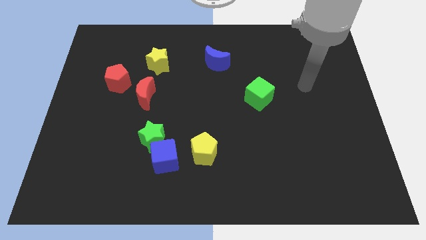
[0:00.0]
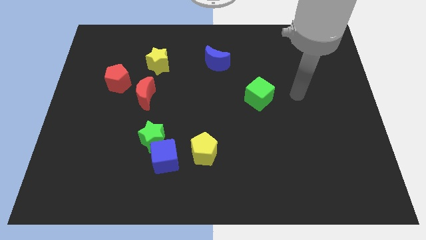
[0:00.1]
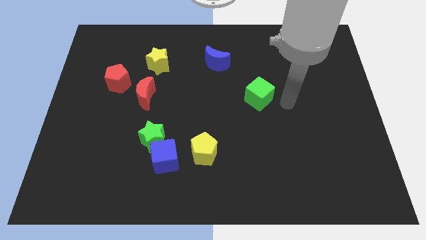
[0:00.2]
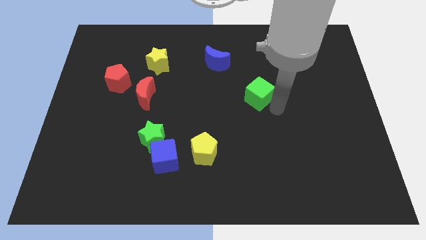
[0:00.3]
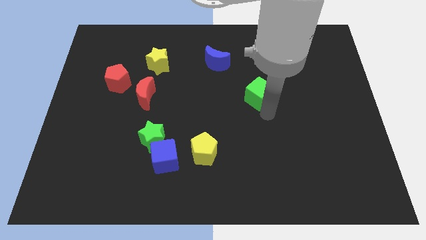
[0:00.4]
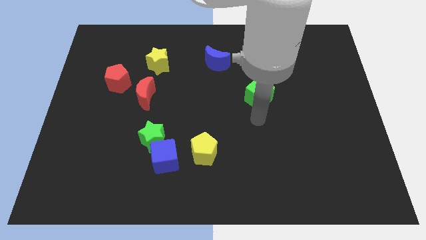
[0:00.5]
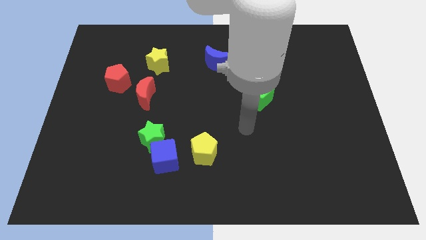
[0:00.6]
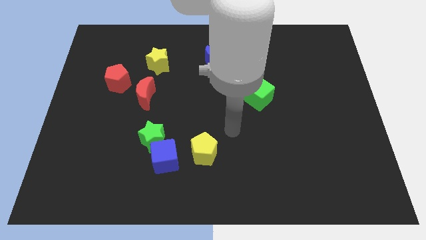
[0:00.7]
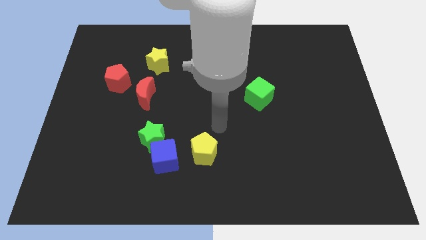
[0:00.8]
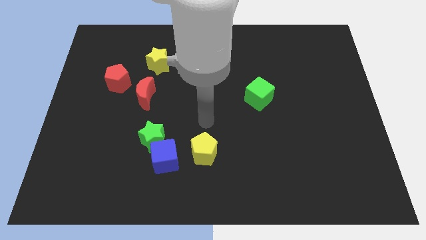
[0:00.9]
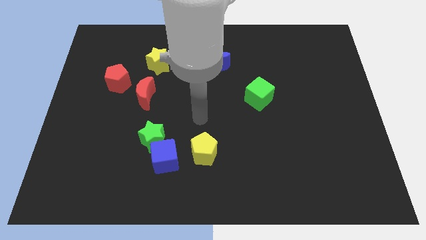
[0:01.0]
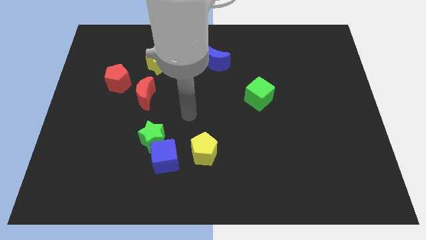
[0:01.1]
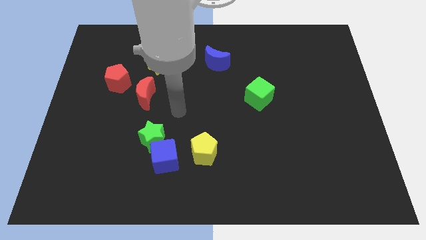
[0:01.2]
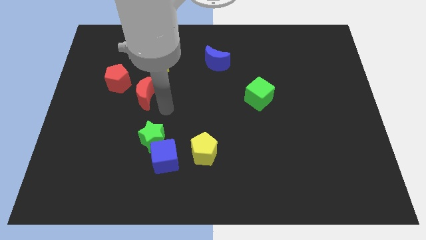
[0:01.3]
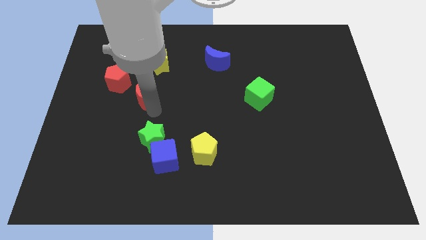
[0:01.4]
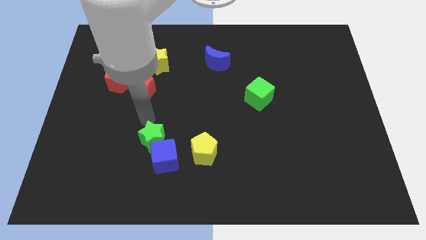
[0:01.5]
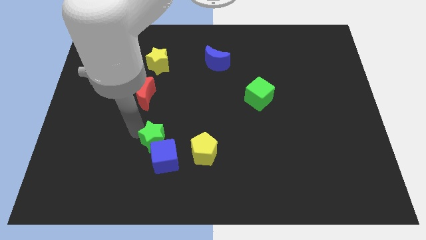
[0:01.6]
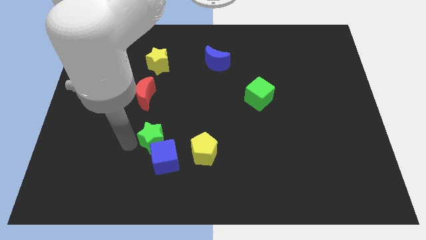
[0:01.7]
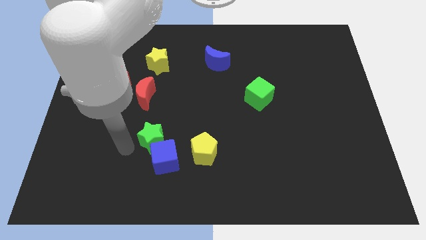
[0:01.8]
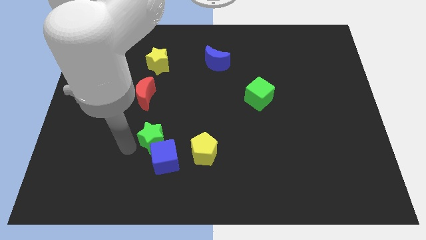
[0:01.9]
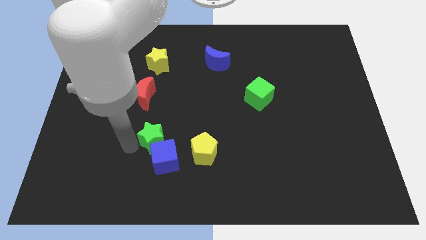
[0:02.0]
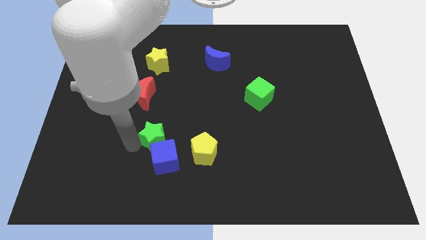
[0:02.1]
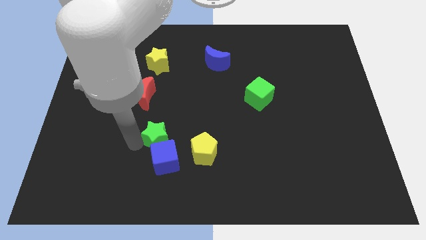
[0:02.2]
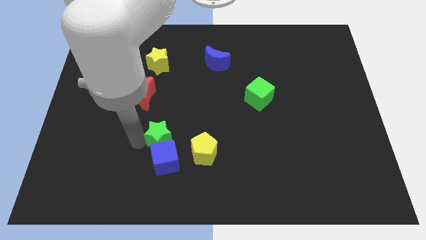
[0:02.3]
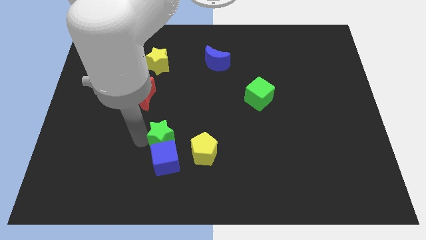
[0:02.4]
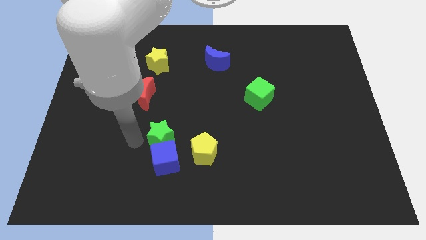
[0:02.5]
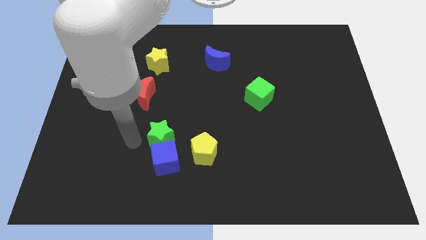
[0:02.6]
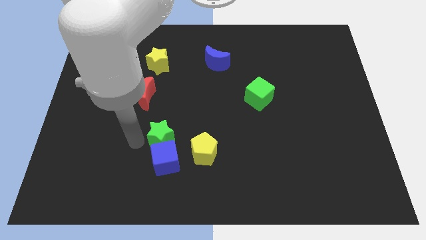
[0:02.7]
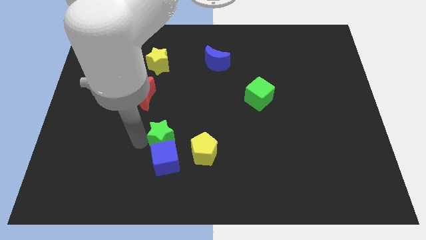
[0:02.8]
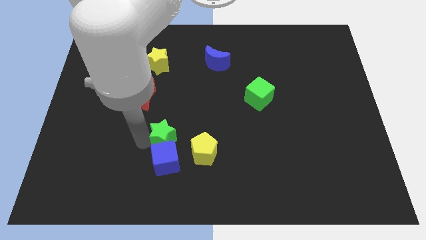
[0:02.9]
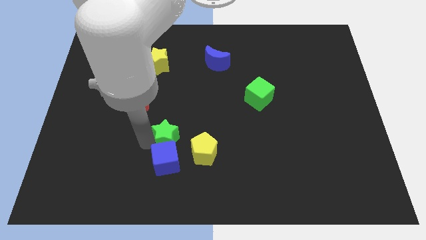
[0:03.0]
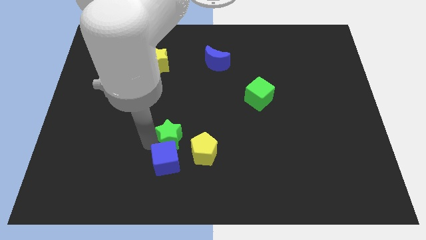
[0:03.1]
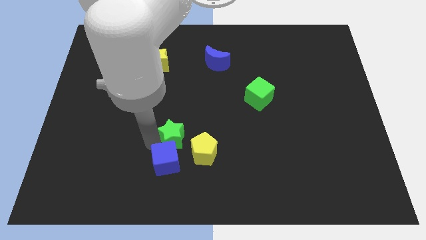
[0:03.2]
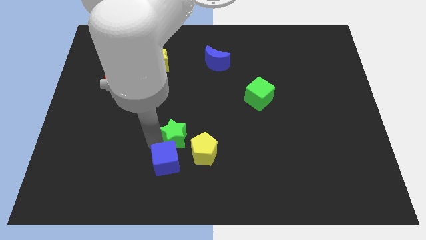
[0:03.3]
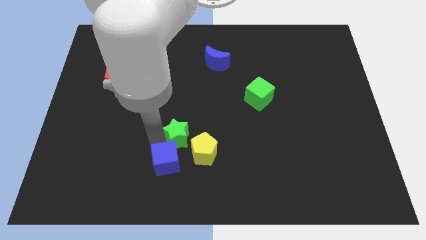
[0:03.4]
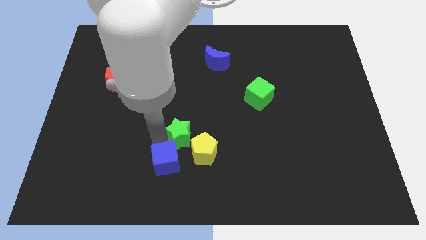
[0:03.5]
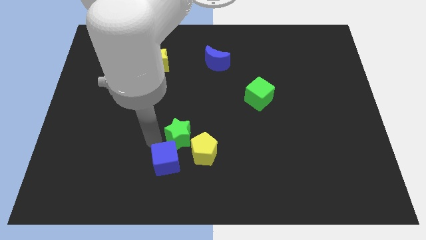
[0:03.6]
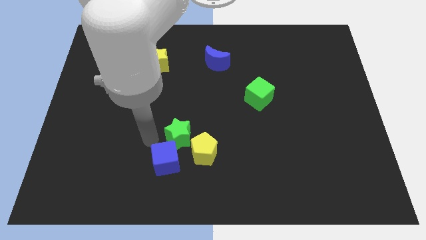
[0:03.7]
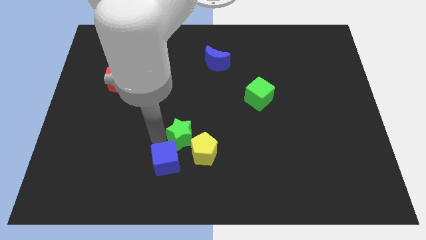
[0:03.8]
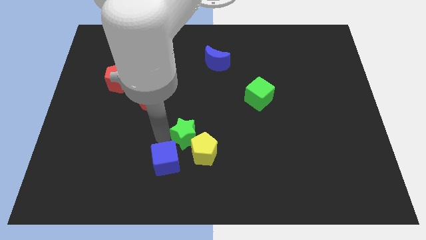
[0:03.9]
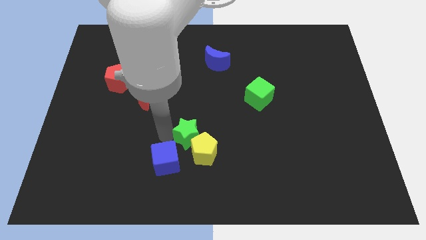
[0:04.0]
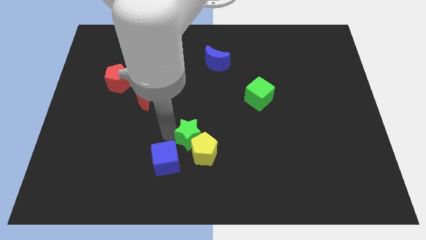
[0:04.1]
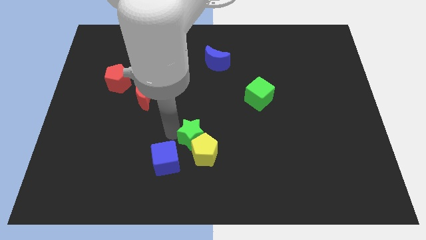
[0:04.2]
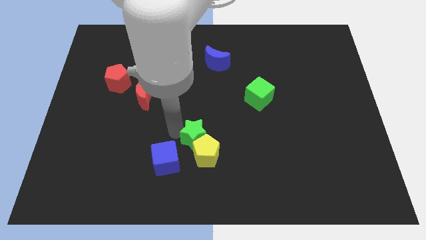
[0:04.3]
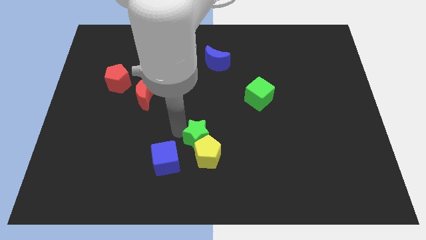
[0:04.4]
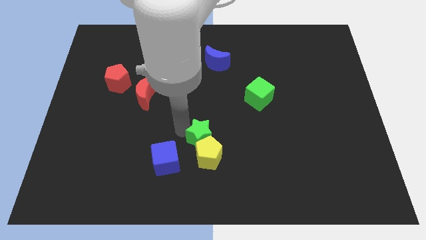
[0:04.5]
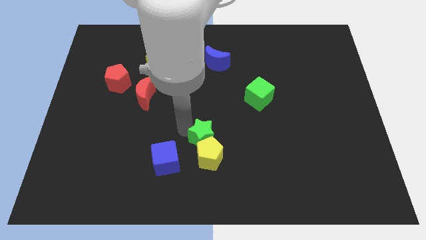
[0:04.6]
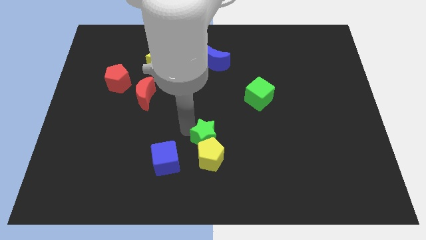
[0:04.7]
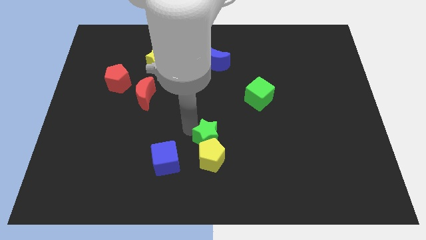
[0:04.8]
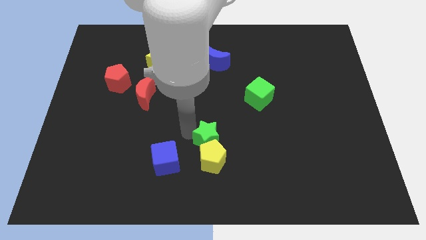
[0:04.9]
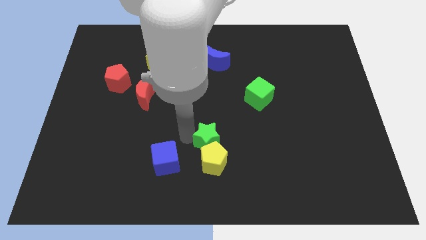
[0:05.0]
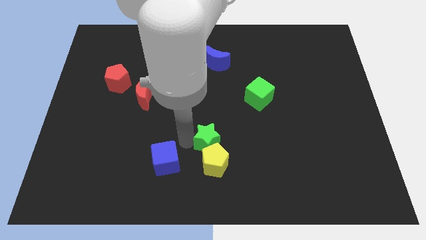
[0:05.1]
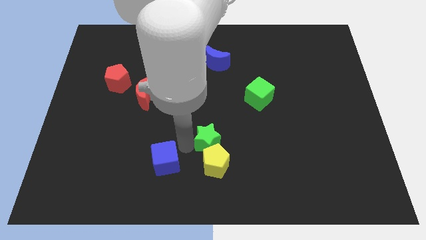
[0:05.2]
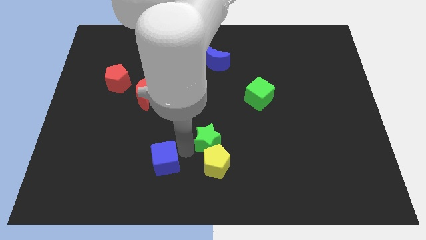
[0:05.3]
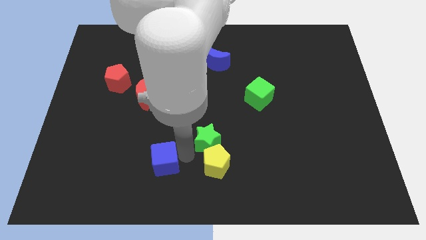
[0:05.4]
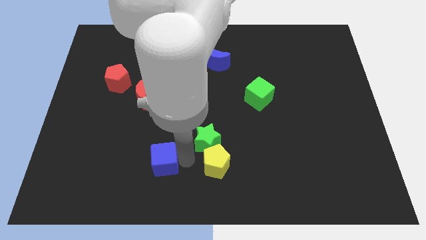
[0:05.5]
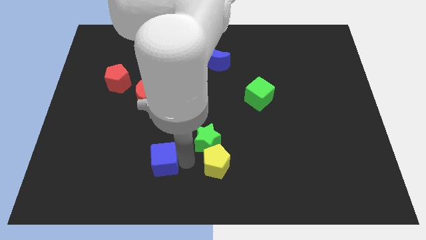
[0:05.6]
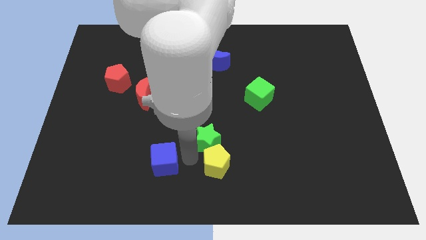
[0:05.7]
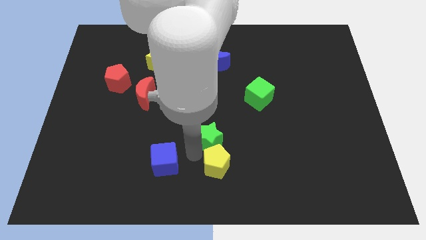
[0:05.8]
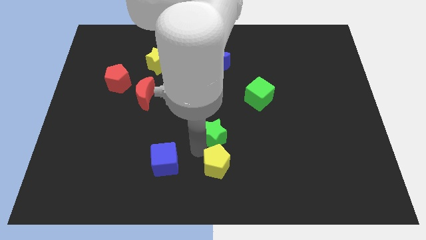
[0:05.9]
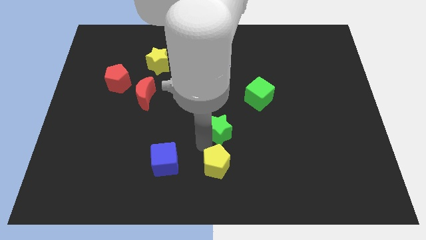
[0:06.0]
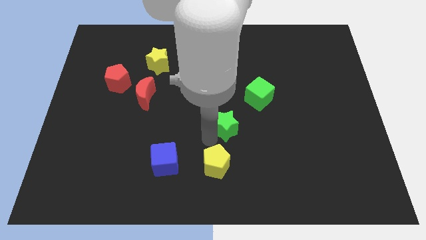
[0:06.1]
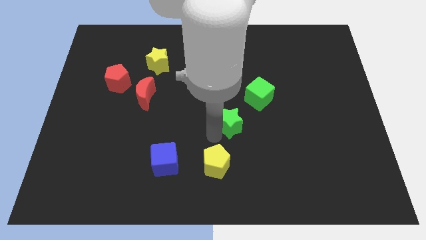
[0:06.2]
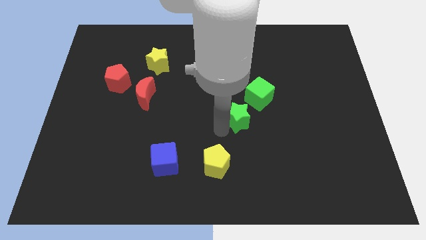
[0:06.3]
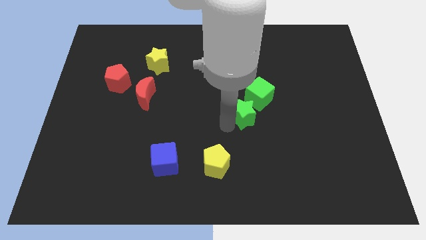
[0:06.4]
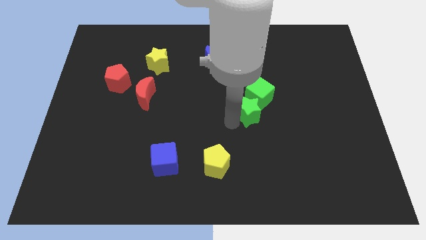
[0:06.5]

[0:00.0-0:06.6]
slide the green star next to the green cube

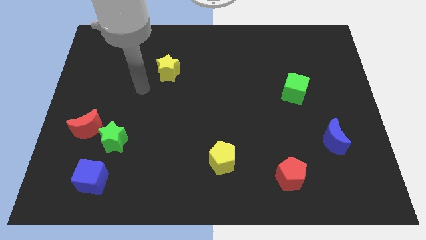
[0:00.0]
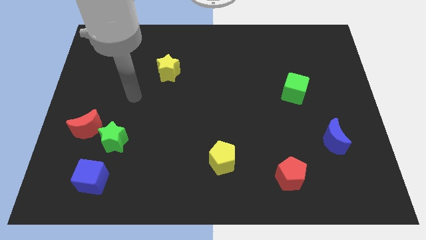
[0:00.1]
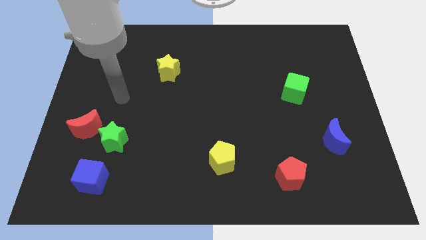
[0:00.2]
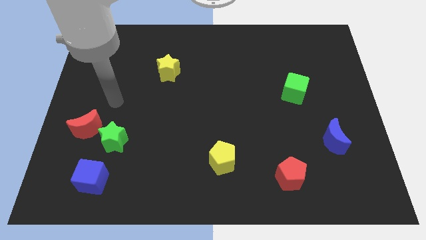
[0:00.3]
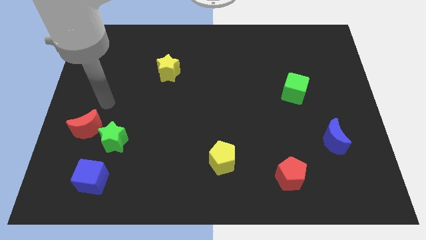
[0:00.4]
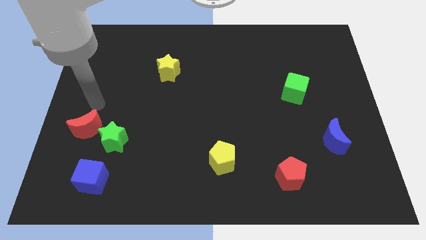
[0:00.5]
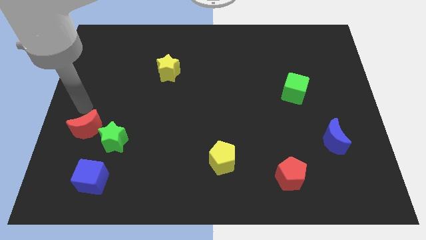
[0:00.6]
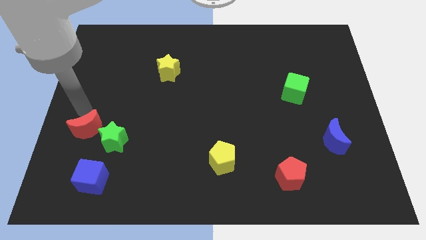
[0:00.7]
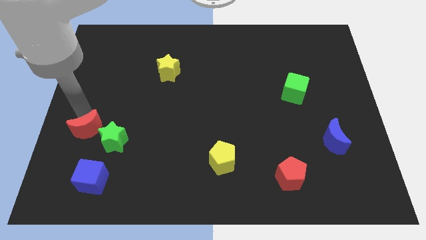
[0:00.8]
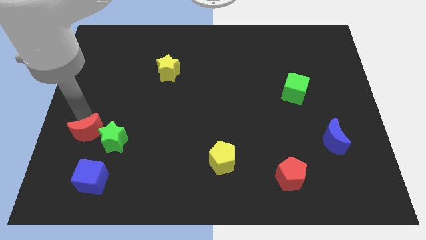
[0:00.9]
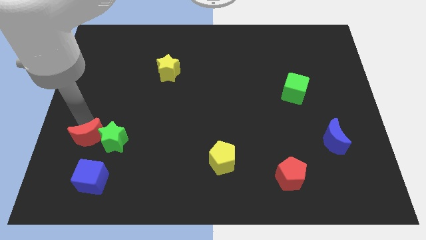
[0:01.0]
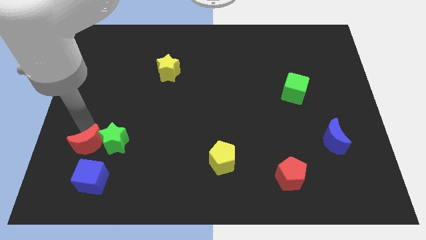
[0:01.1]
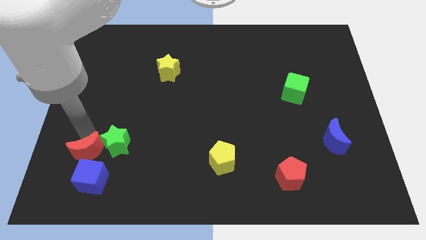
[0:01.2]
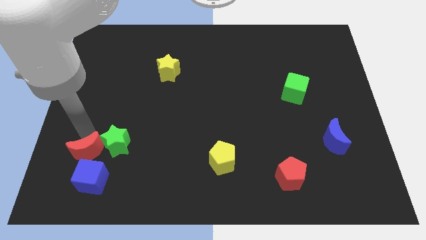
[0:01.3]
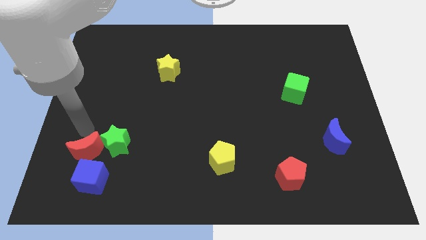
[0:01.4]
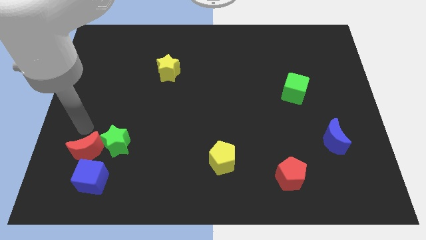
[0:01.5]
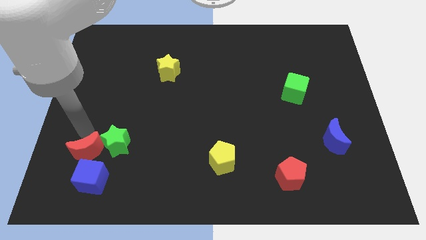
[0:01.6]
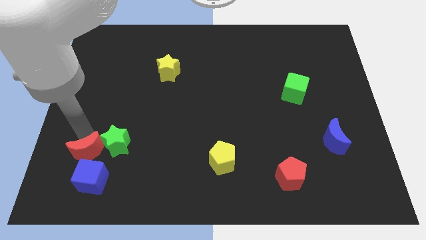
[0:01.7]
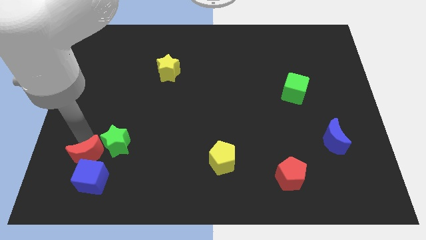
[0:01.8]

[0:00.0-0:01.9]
push the red moon close to the blue cube
